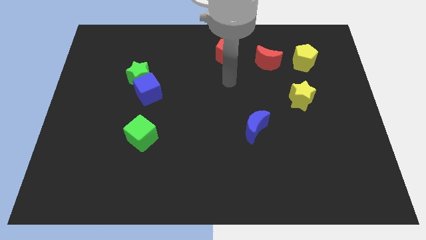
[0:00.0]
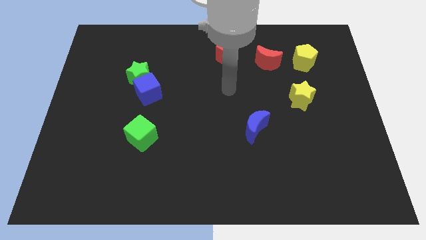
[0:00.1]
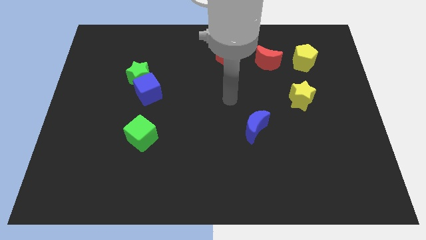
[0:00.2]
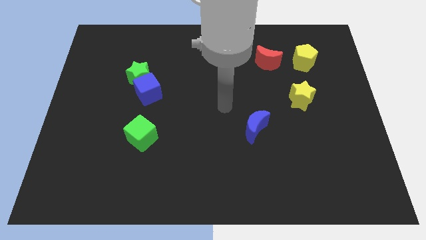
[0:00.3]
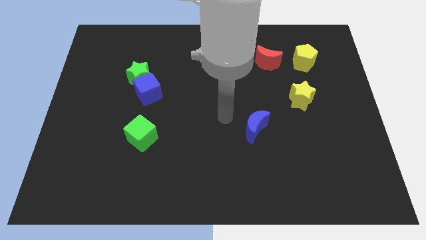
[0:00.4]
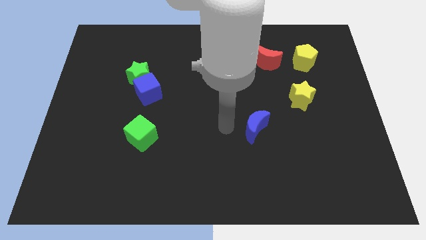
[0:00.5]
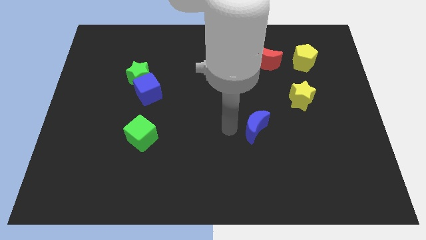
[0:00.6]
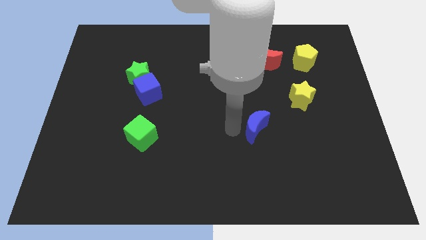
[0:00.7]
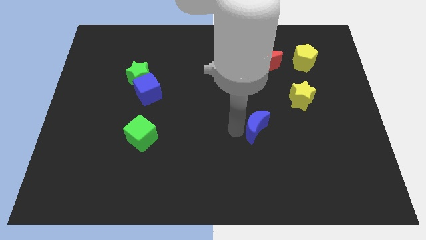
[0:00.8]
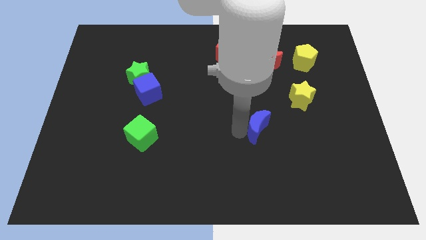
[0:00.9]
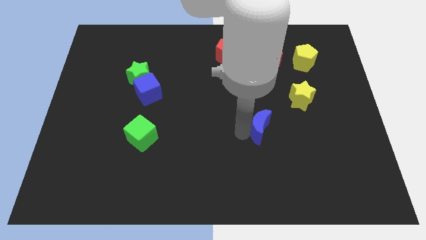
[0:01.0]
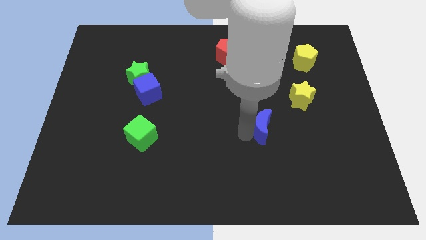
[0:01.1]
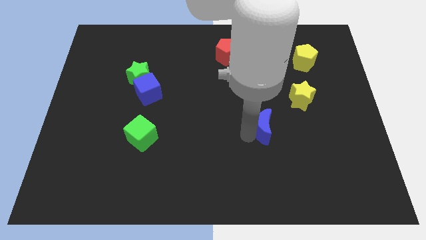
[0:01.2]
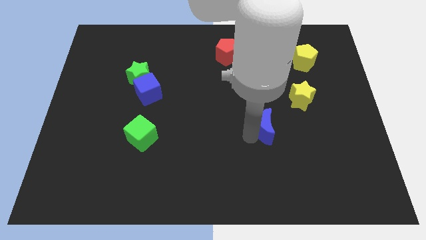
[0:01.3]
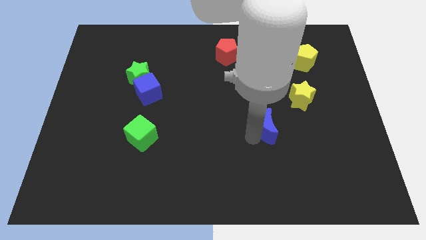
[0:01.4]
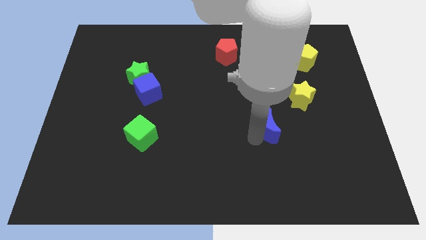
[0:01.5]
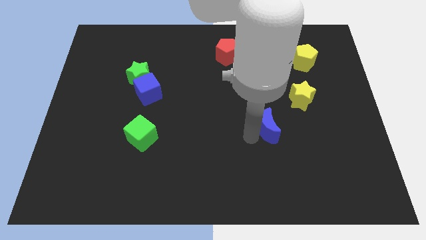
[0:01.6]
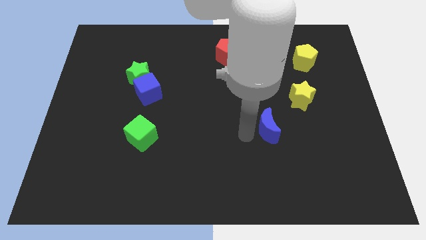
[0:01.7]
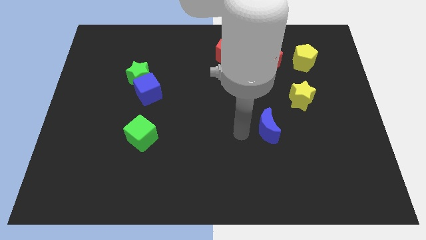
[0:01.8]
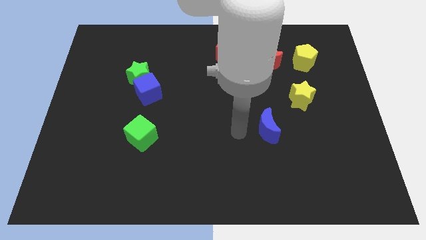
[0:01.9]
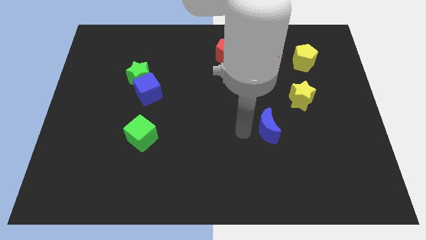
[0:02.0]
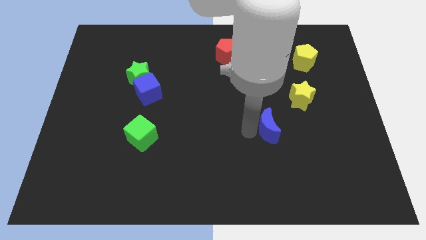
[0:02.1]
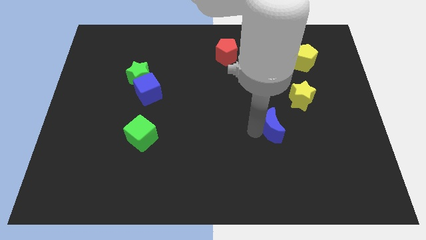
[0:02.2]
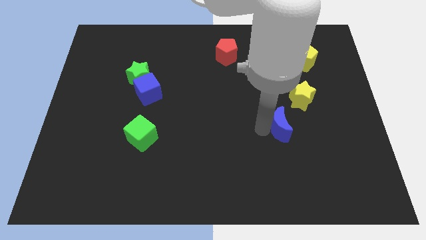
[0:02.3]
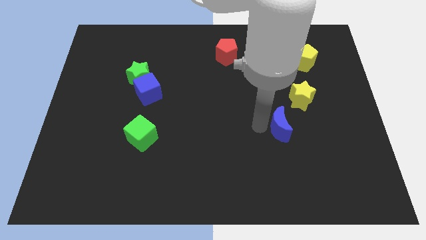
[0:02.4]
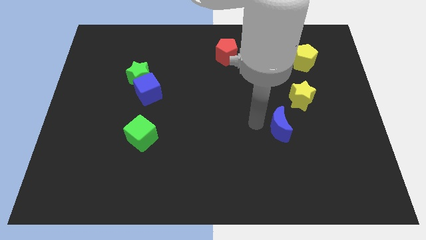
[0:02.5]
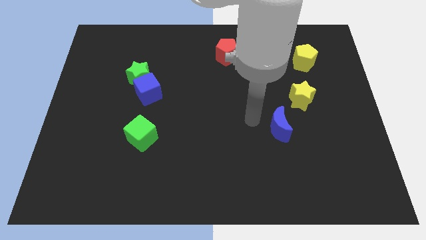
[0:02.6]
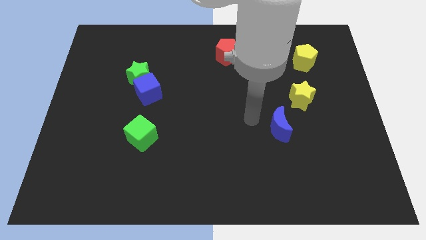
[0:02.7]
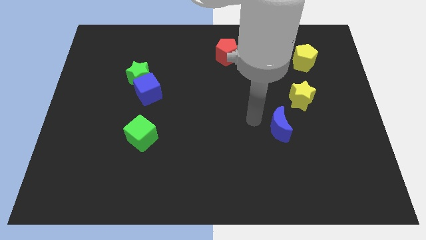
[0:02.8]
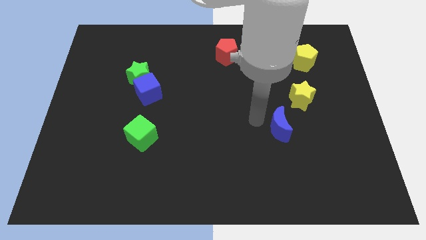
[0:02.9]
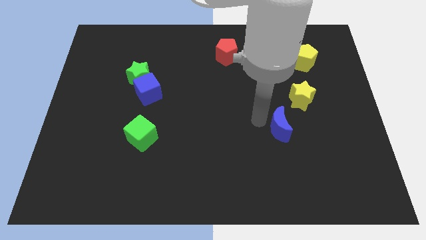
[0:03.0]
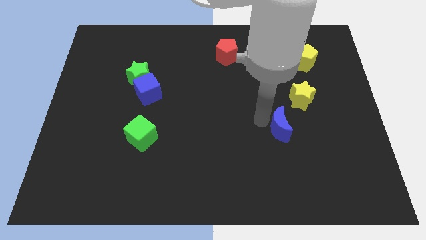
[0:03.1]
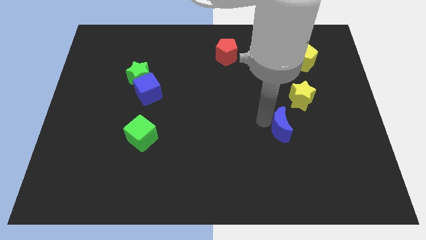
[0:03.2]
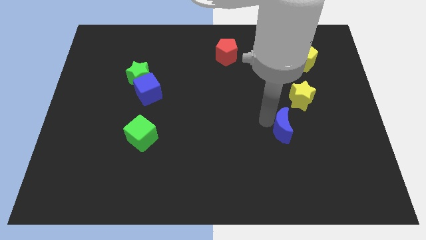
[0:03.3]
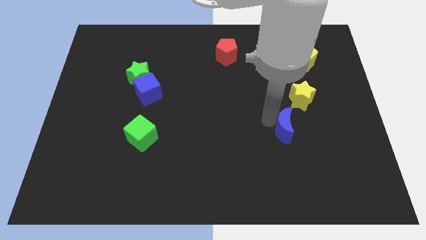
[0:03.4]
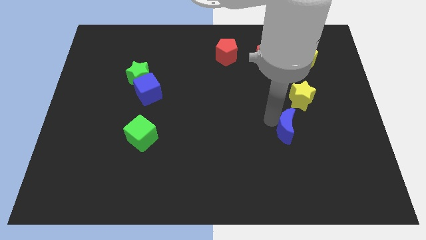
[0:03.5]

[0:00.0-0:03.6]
push the blue moon to the right a little bit

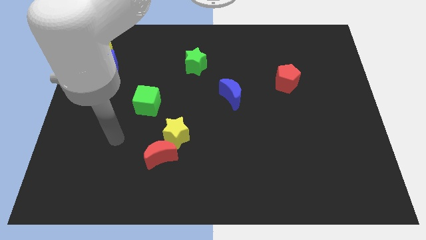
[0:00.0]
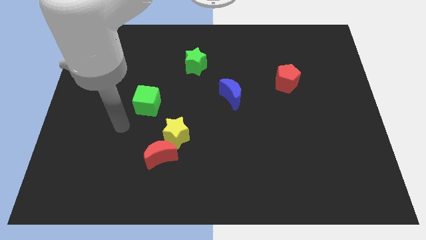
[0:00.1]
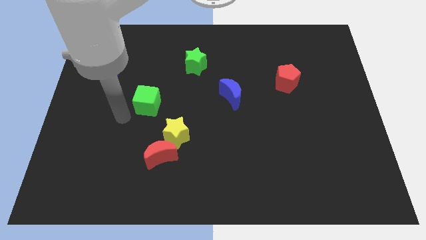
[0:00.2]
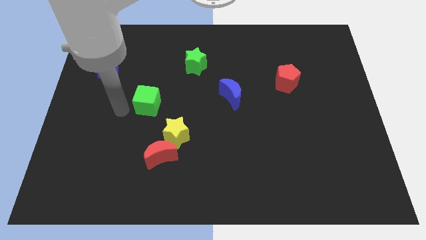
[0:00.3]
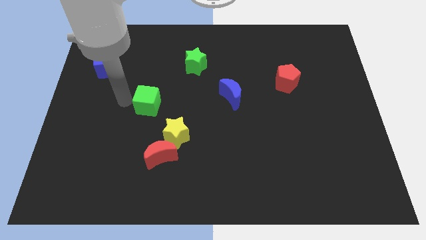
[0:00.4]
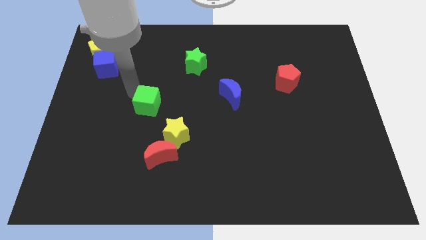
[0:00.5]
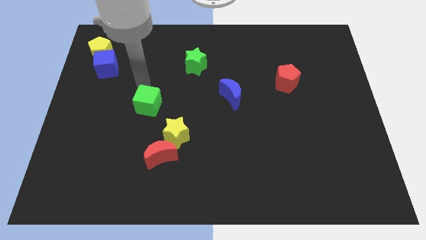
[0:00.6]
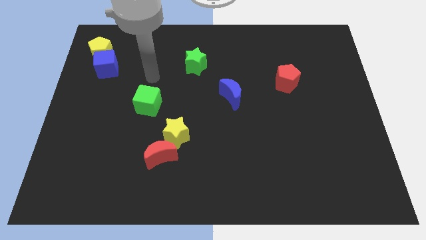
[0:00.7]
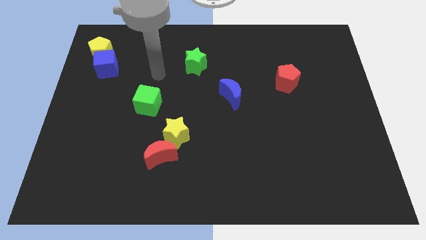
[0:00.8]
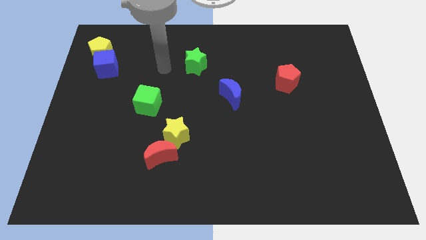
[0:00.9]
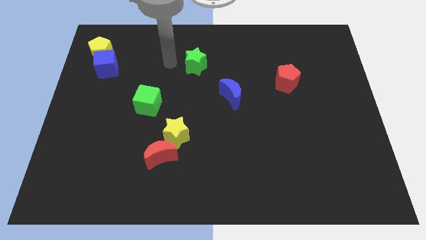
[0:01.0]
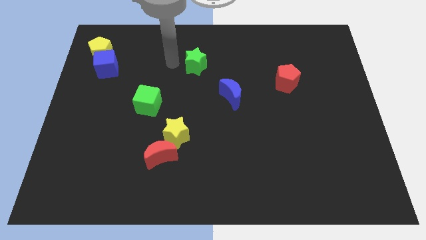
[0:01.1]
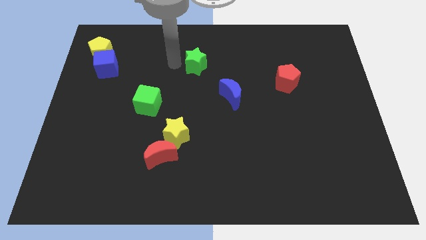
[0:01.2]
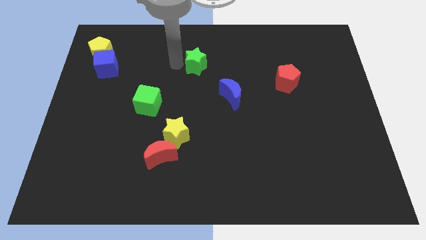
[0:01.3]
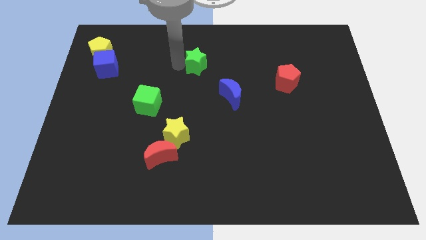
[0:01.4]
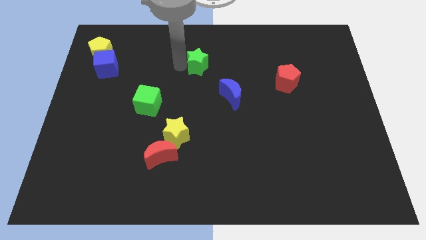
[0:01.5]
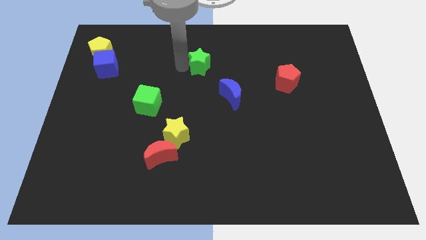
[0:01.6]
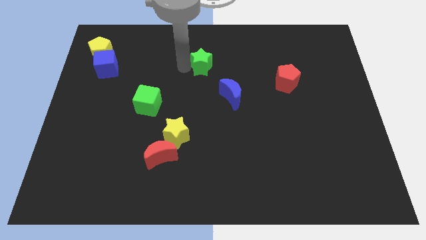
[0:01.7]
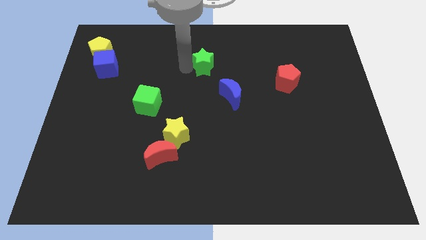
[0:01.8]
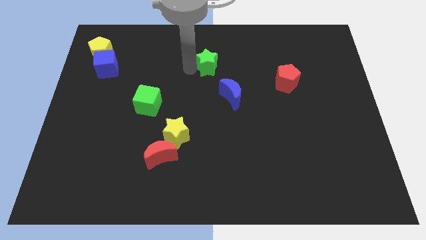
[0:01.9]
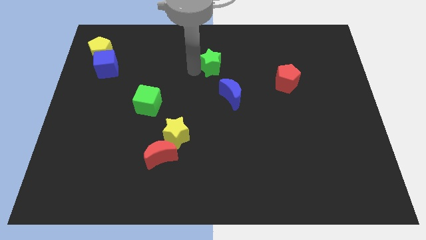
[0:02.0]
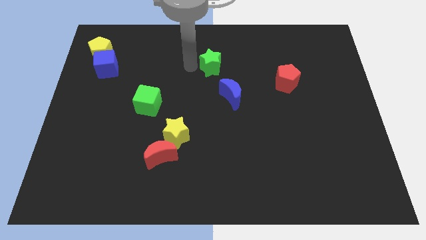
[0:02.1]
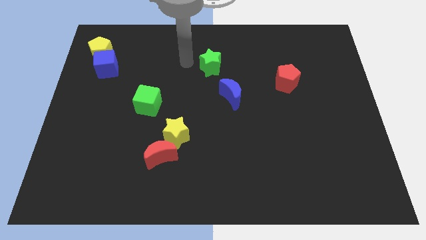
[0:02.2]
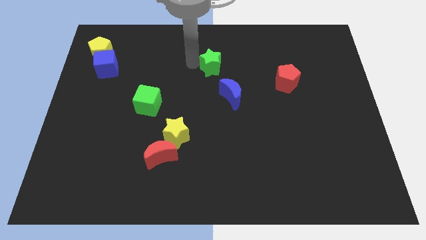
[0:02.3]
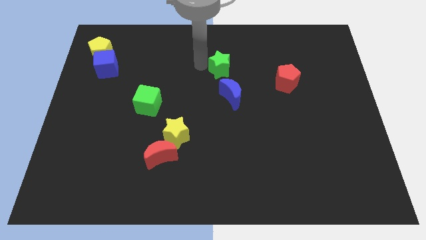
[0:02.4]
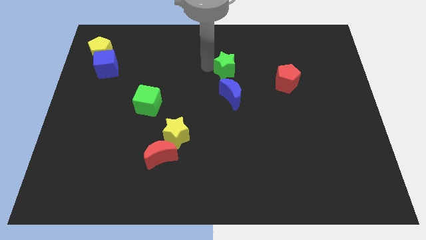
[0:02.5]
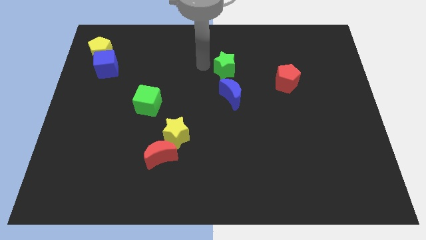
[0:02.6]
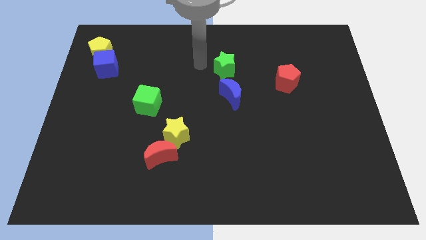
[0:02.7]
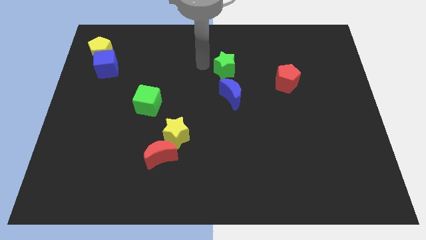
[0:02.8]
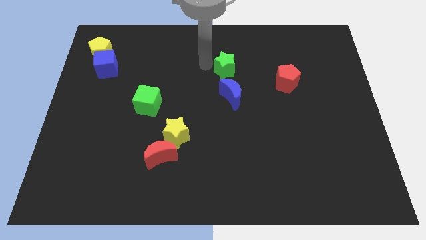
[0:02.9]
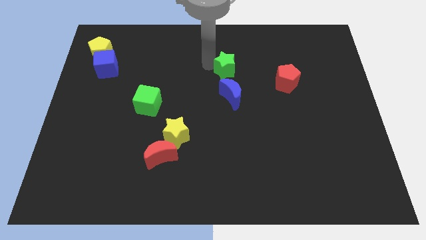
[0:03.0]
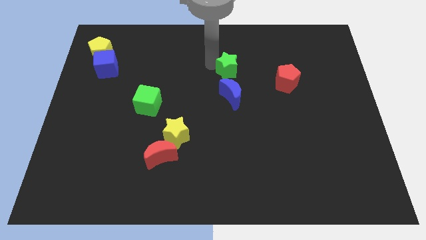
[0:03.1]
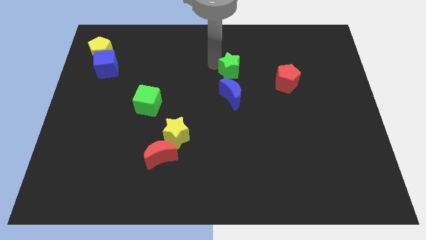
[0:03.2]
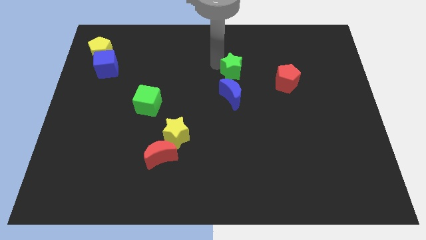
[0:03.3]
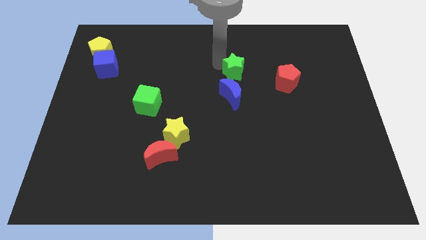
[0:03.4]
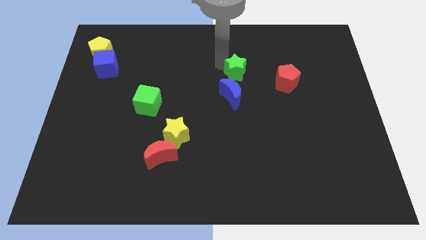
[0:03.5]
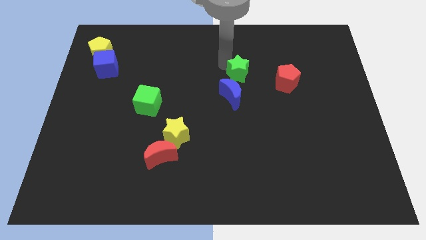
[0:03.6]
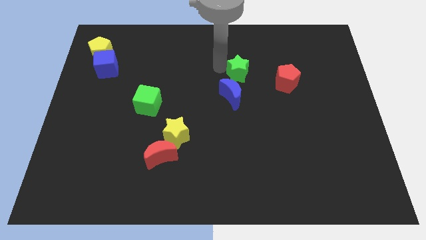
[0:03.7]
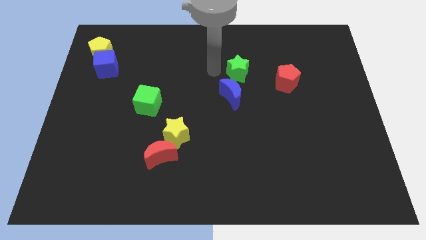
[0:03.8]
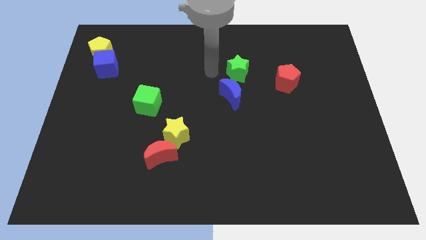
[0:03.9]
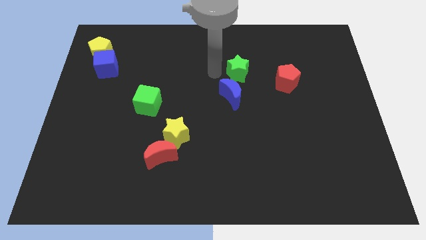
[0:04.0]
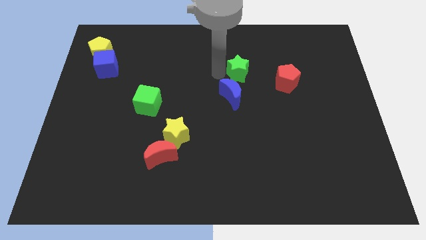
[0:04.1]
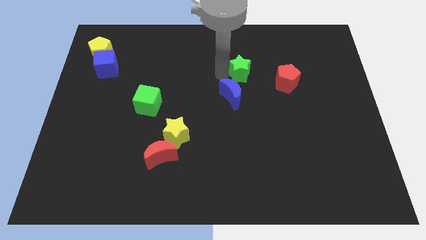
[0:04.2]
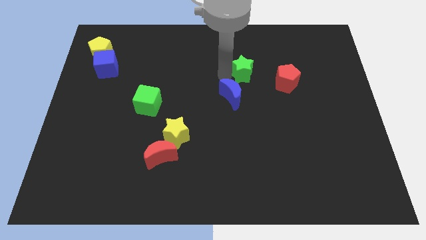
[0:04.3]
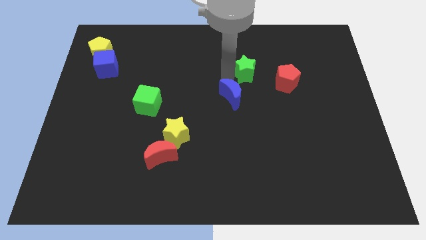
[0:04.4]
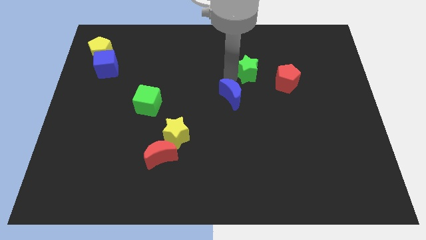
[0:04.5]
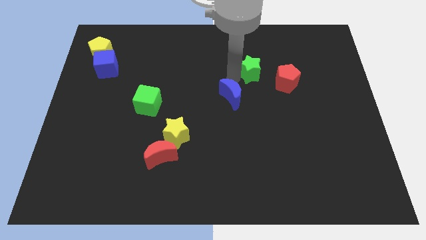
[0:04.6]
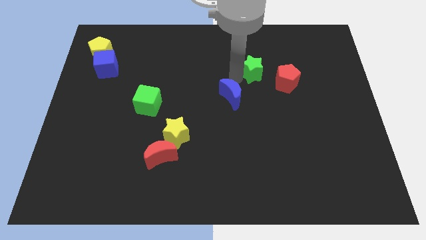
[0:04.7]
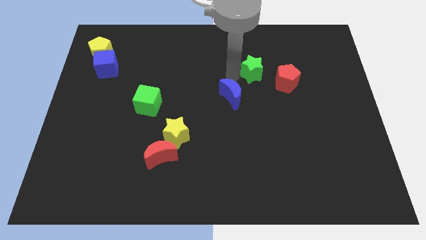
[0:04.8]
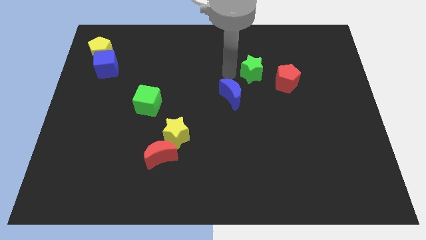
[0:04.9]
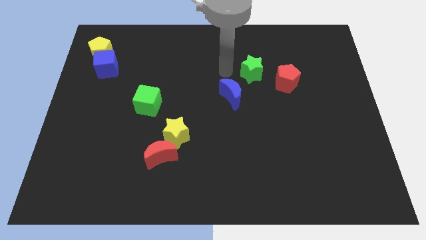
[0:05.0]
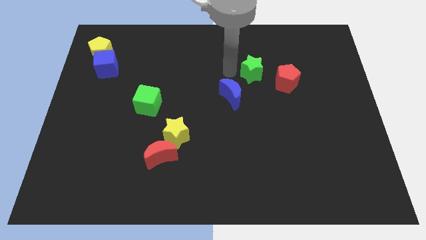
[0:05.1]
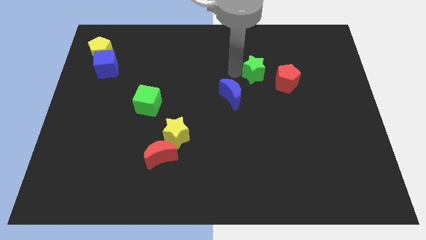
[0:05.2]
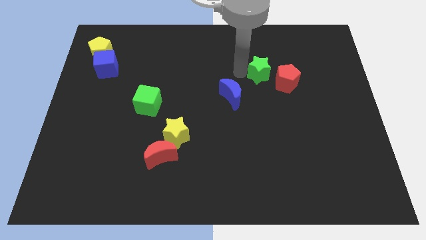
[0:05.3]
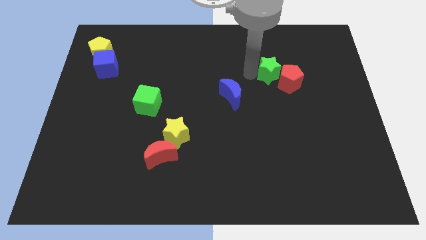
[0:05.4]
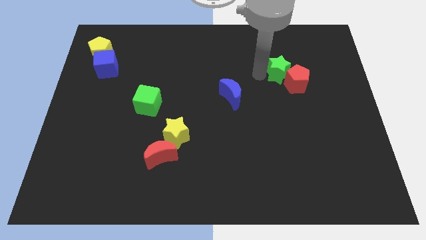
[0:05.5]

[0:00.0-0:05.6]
push the green star to the right
